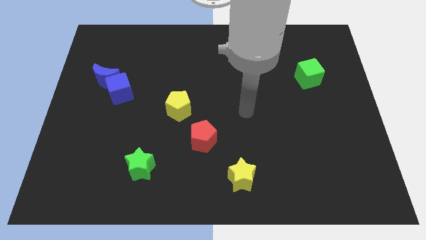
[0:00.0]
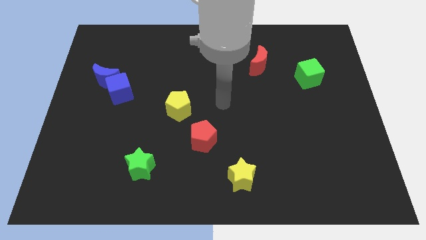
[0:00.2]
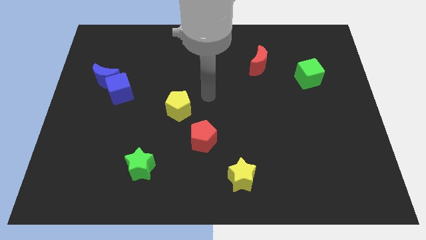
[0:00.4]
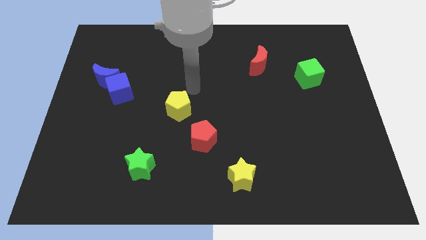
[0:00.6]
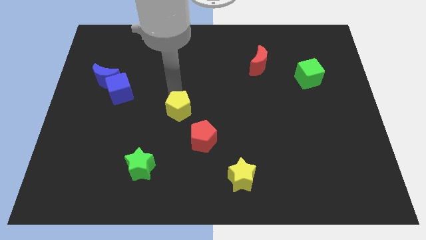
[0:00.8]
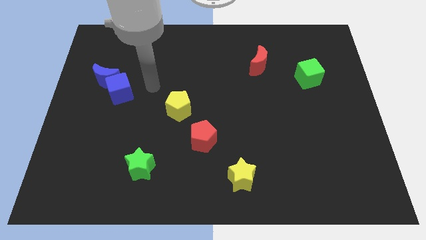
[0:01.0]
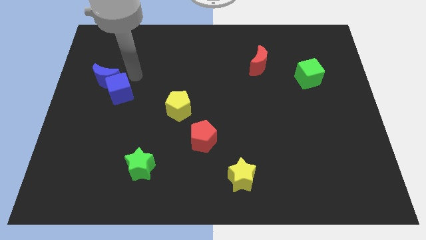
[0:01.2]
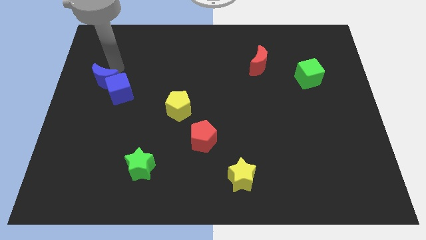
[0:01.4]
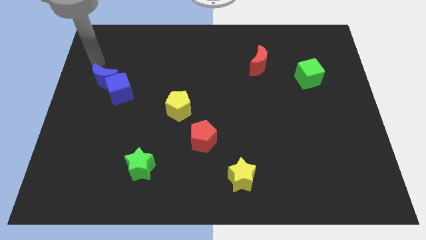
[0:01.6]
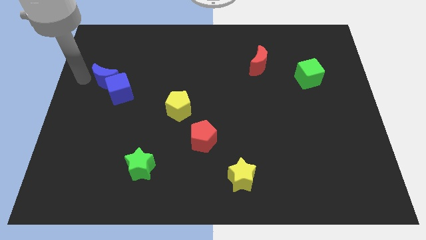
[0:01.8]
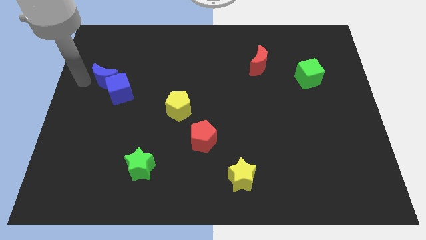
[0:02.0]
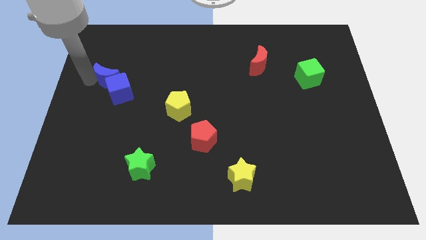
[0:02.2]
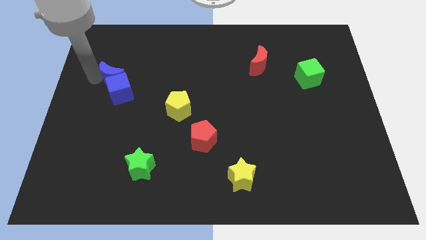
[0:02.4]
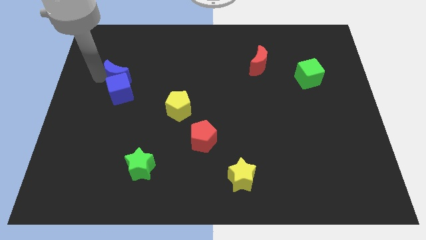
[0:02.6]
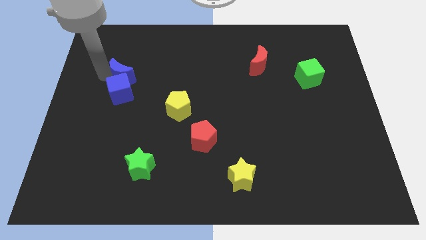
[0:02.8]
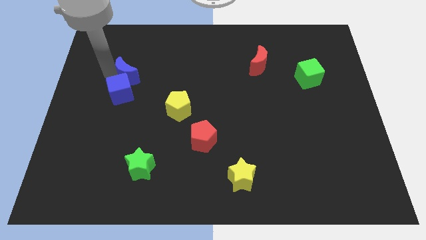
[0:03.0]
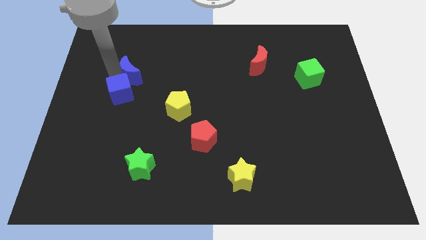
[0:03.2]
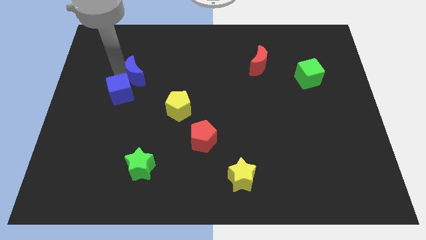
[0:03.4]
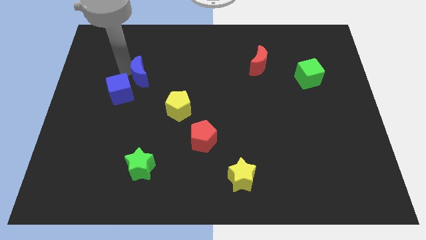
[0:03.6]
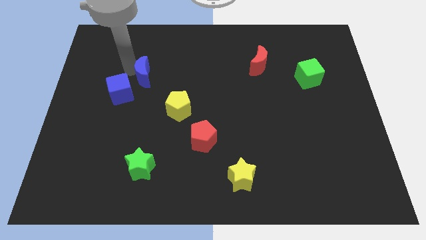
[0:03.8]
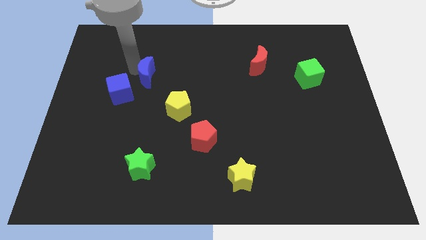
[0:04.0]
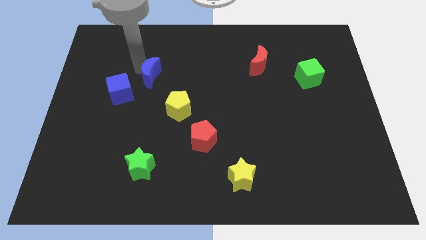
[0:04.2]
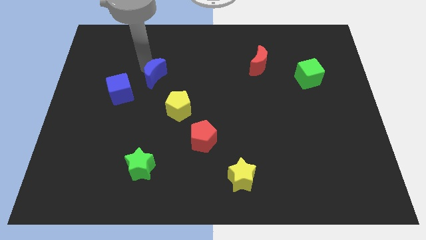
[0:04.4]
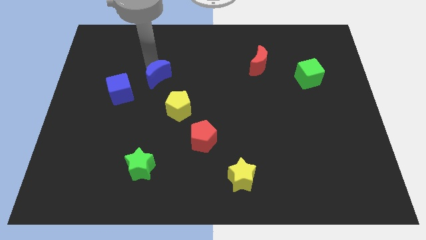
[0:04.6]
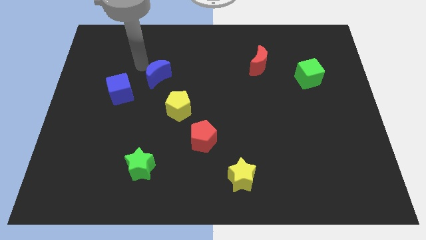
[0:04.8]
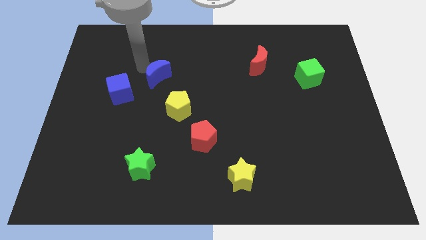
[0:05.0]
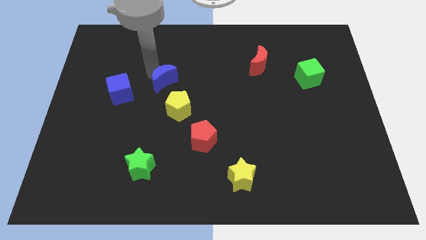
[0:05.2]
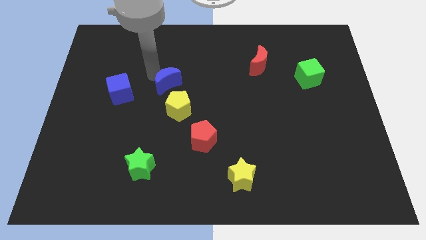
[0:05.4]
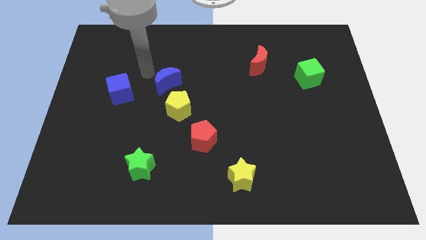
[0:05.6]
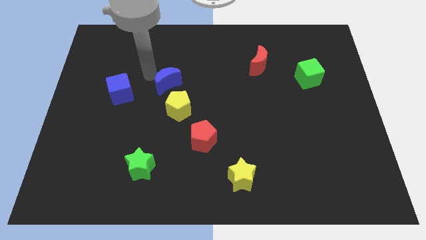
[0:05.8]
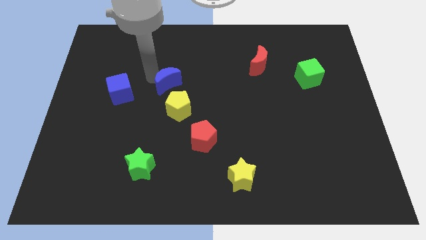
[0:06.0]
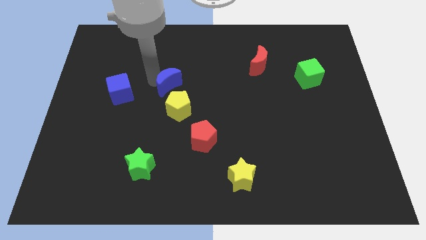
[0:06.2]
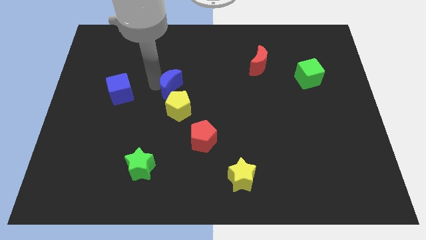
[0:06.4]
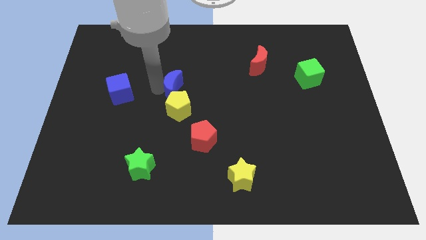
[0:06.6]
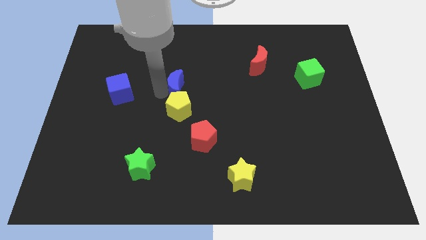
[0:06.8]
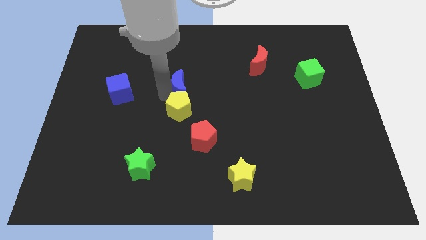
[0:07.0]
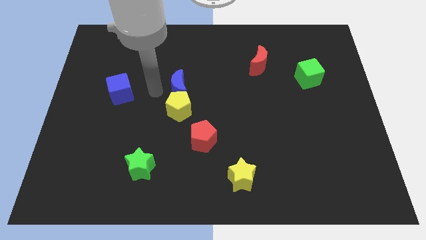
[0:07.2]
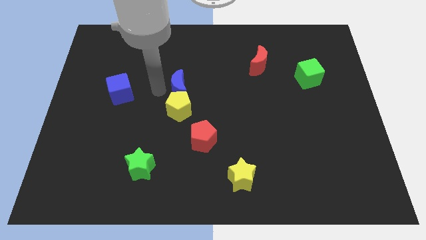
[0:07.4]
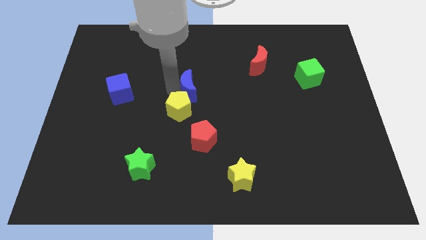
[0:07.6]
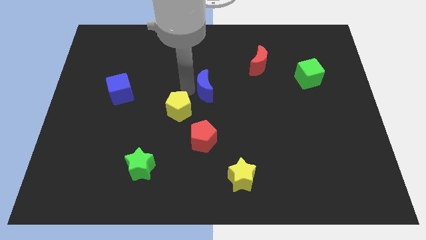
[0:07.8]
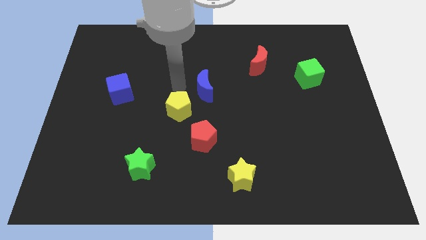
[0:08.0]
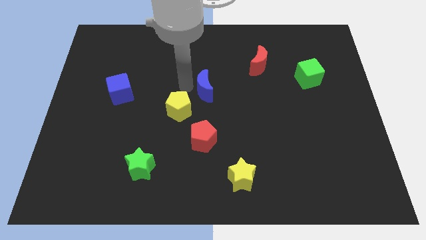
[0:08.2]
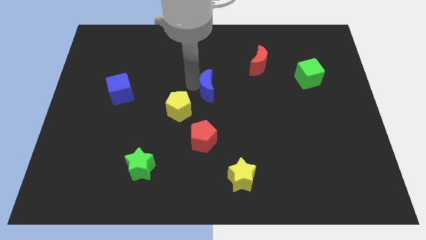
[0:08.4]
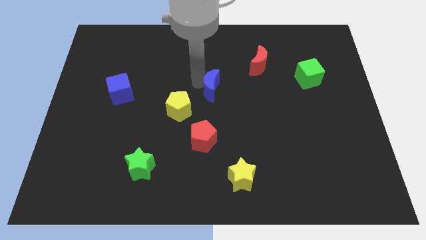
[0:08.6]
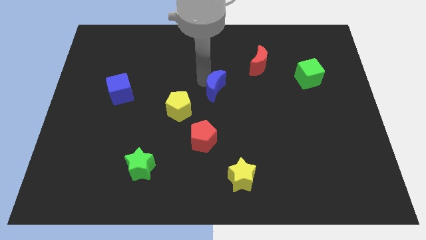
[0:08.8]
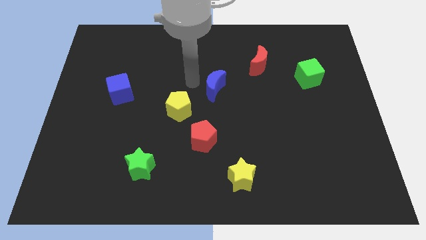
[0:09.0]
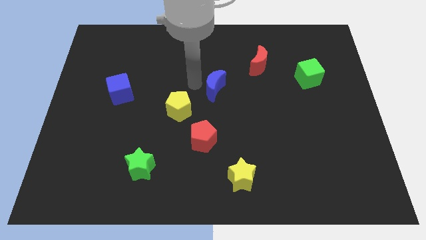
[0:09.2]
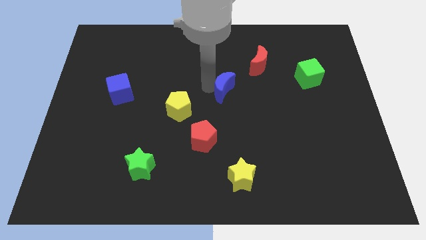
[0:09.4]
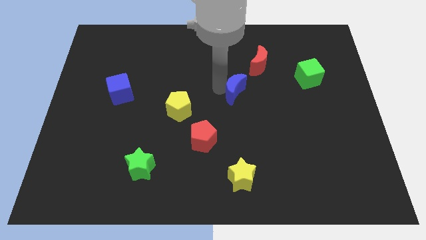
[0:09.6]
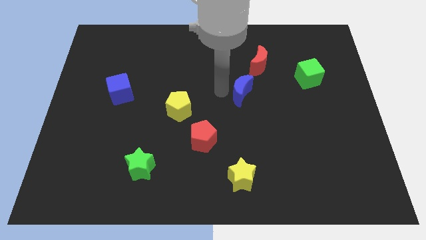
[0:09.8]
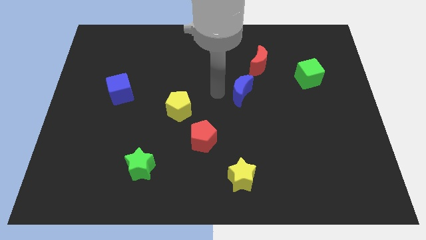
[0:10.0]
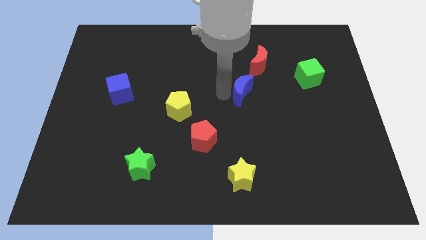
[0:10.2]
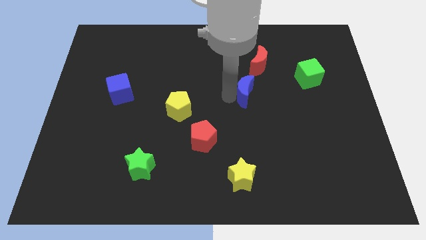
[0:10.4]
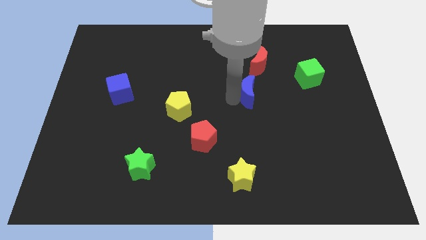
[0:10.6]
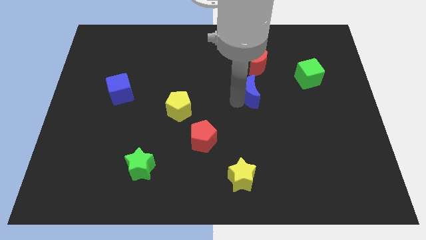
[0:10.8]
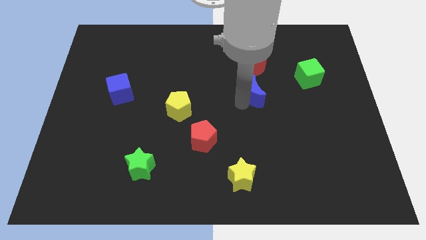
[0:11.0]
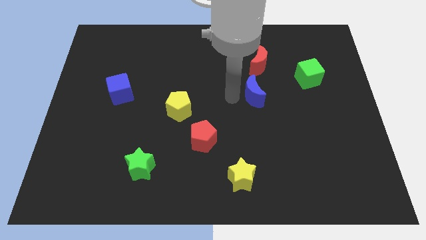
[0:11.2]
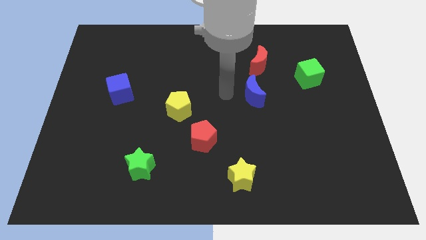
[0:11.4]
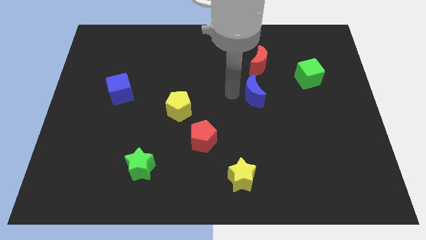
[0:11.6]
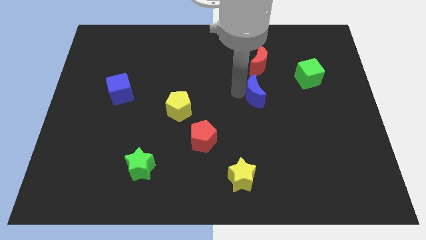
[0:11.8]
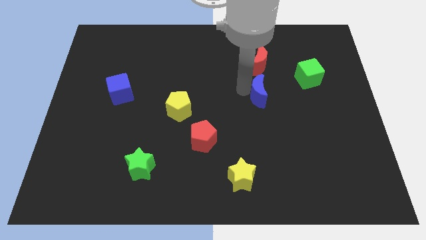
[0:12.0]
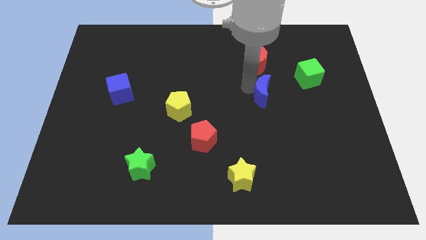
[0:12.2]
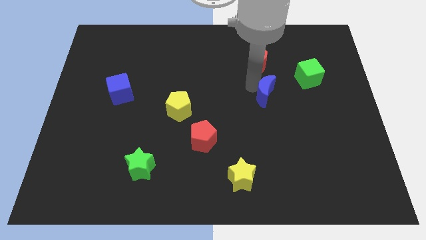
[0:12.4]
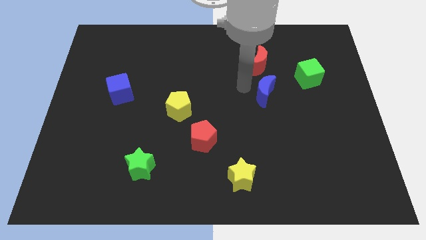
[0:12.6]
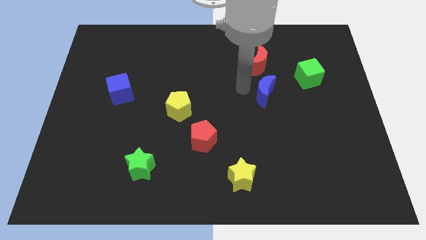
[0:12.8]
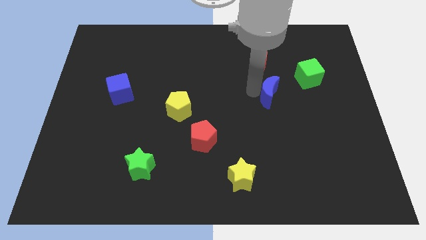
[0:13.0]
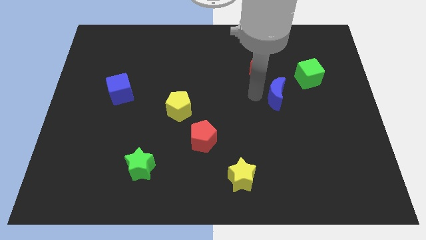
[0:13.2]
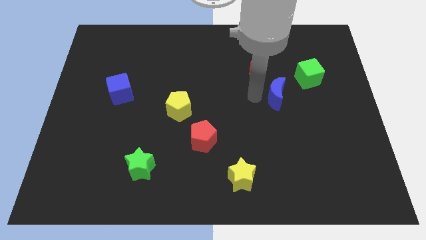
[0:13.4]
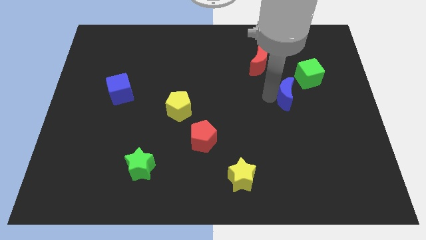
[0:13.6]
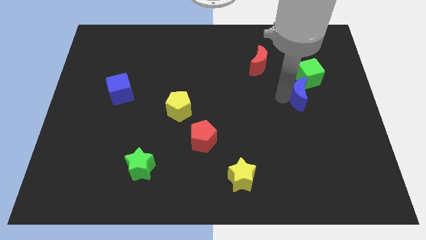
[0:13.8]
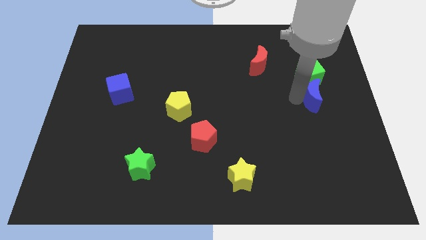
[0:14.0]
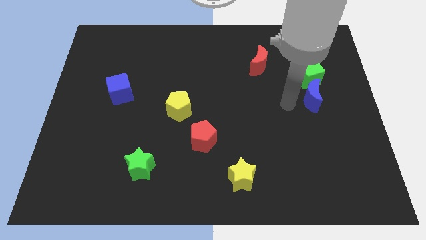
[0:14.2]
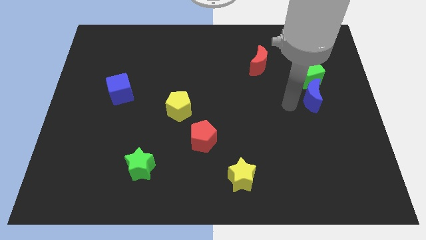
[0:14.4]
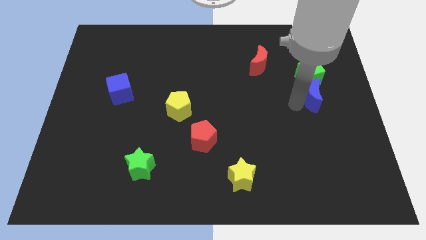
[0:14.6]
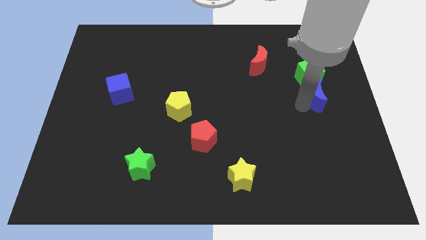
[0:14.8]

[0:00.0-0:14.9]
push the blue moon diagonally down and to the right of the green cube

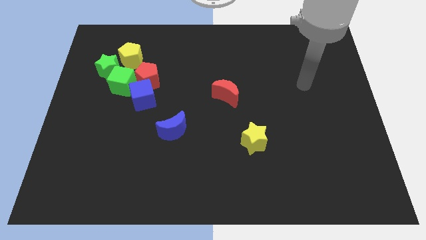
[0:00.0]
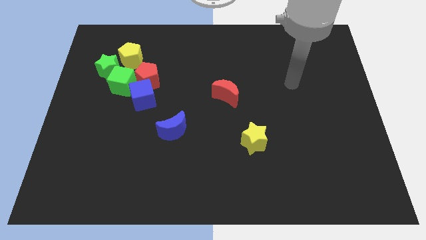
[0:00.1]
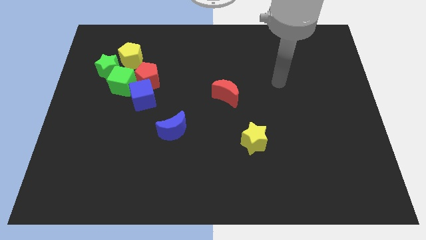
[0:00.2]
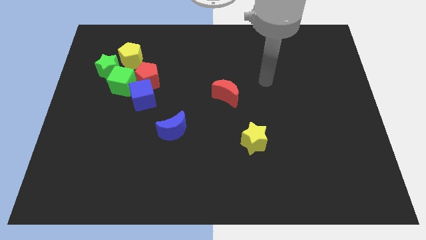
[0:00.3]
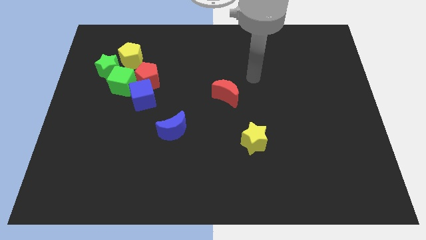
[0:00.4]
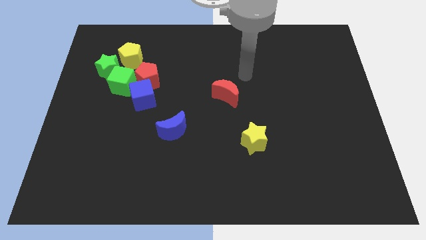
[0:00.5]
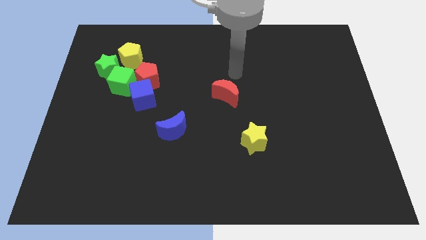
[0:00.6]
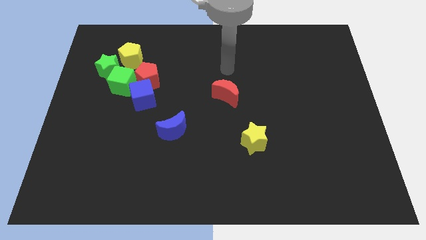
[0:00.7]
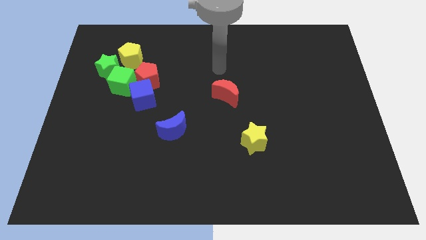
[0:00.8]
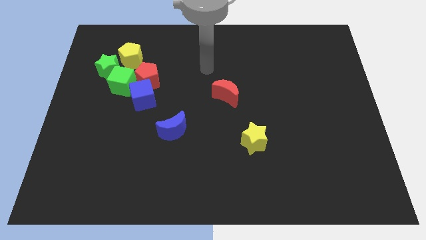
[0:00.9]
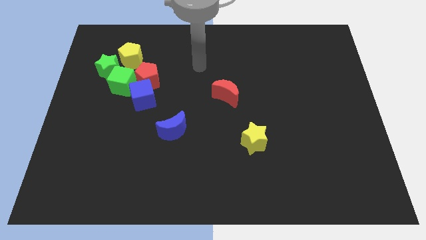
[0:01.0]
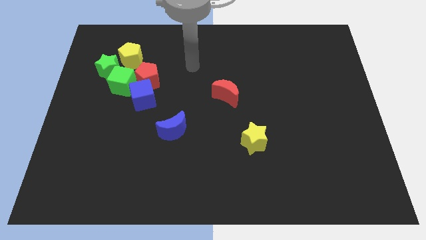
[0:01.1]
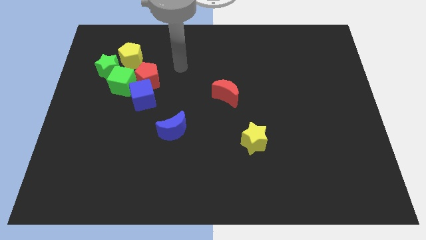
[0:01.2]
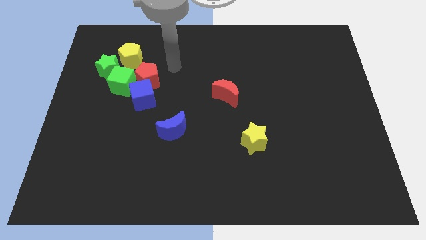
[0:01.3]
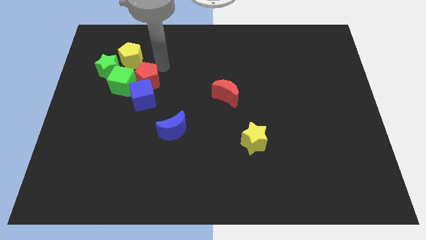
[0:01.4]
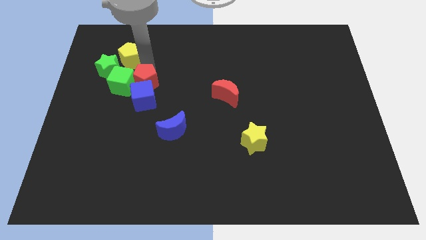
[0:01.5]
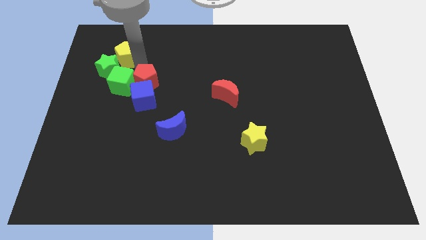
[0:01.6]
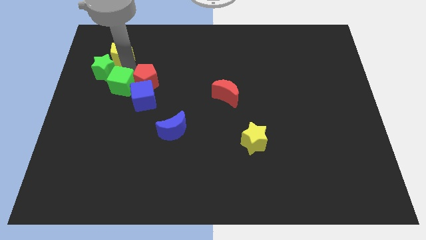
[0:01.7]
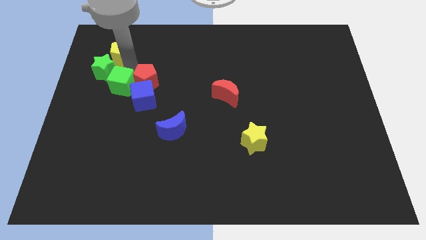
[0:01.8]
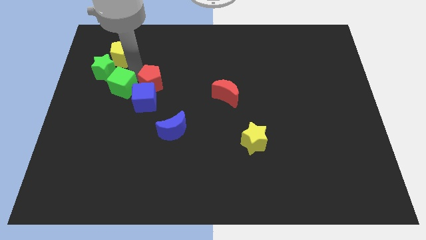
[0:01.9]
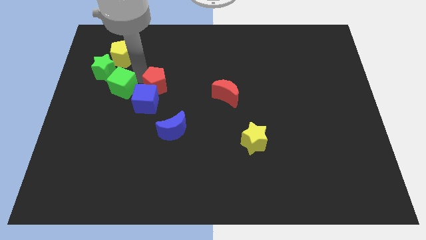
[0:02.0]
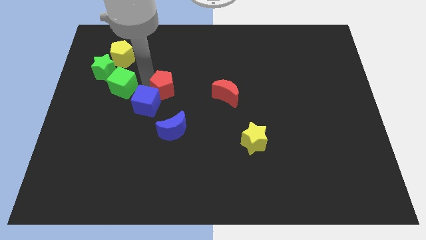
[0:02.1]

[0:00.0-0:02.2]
put the red pentagon to the left side of the red moon
